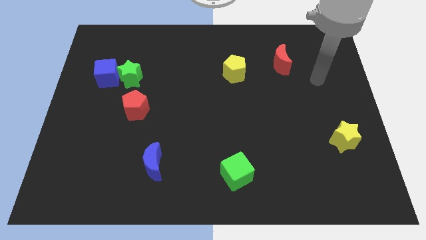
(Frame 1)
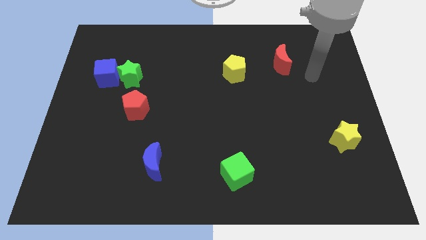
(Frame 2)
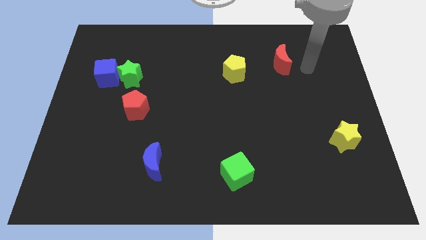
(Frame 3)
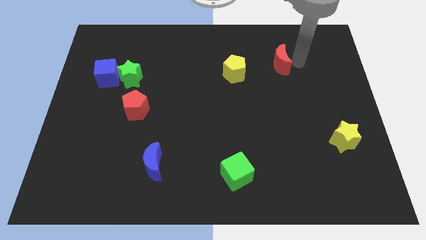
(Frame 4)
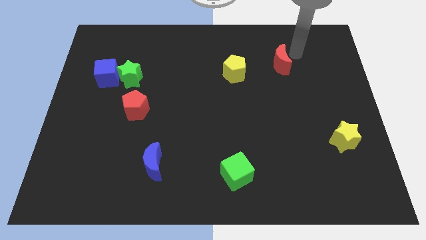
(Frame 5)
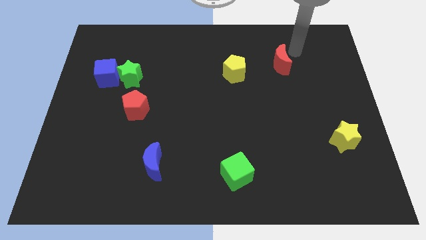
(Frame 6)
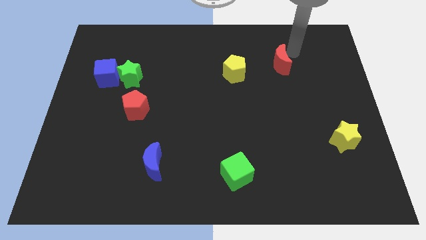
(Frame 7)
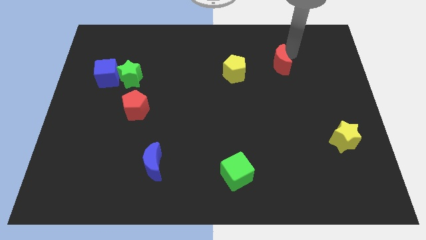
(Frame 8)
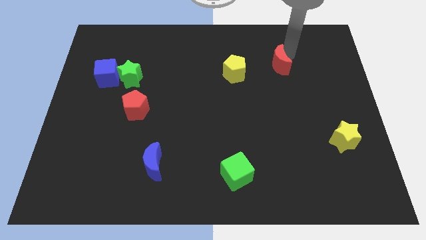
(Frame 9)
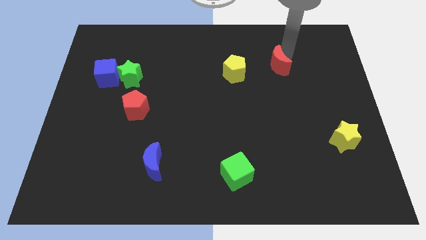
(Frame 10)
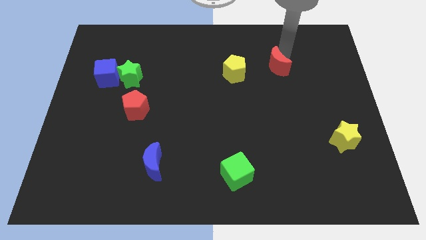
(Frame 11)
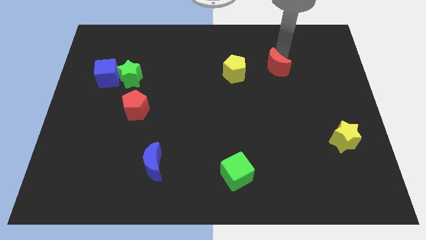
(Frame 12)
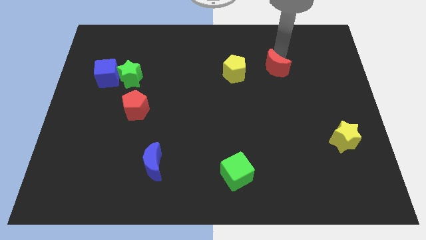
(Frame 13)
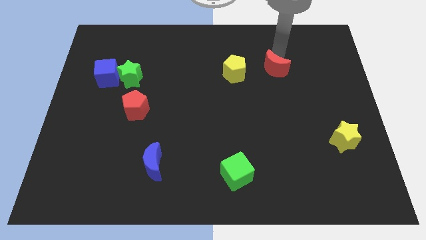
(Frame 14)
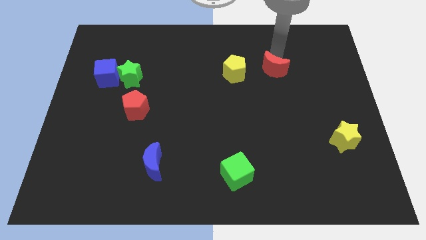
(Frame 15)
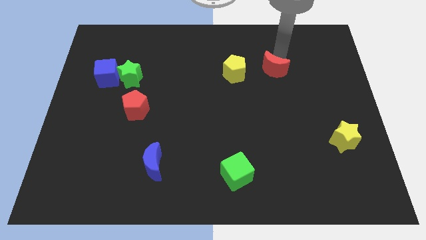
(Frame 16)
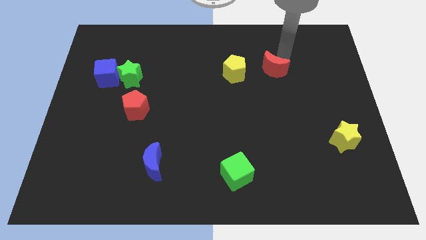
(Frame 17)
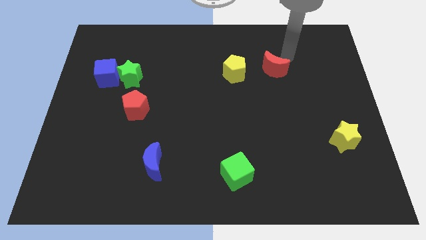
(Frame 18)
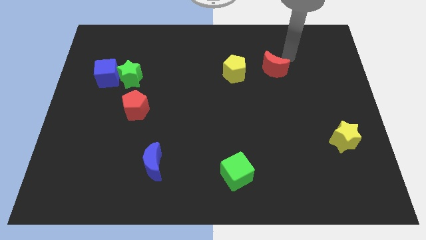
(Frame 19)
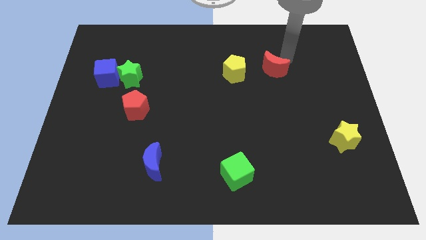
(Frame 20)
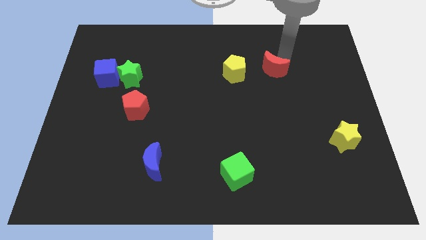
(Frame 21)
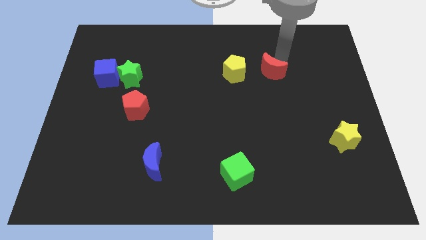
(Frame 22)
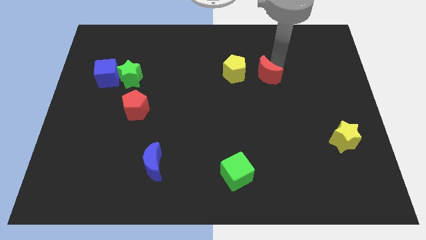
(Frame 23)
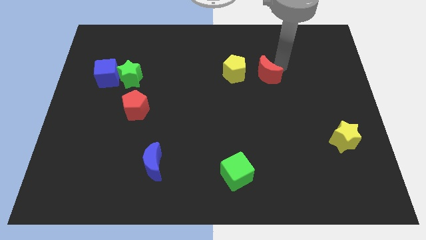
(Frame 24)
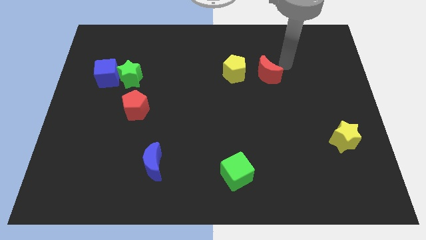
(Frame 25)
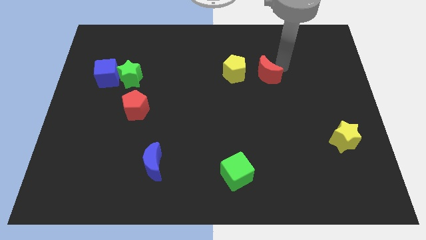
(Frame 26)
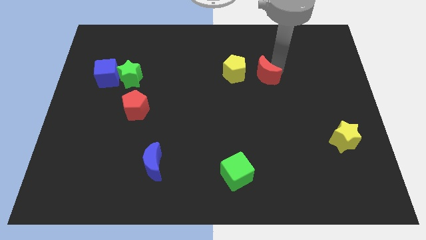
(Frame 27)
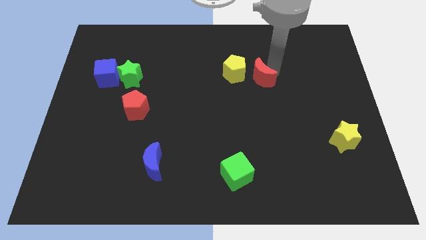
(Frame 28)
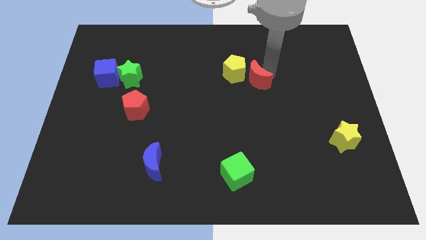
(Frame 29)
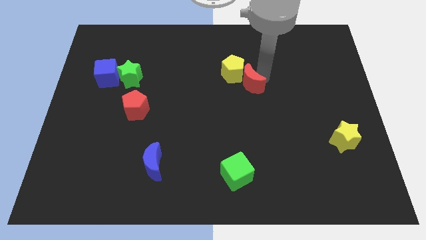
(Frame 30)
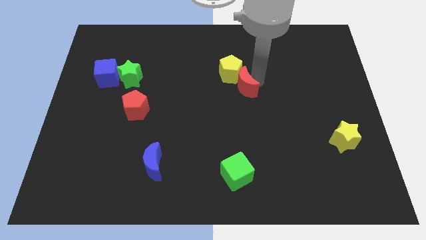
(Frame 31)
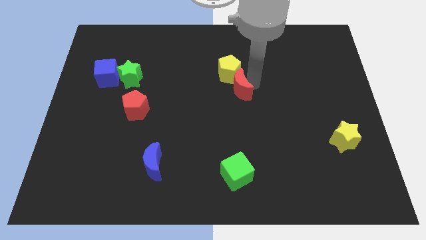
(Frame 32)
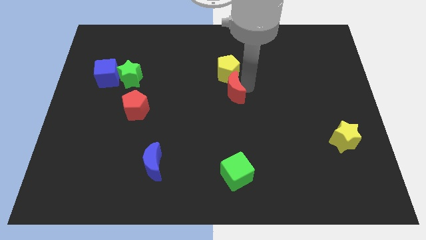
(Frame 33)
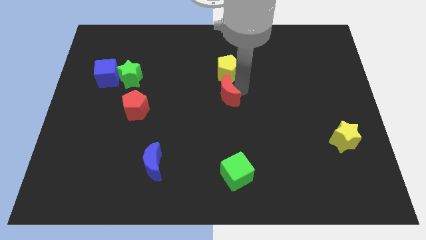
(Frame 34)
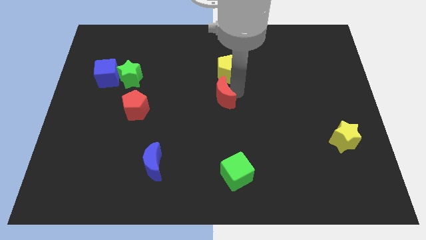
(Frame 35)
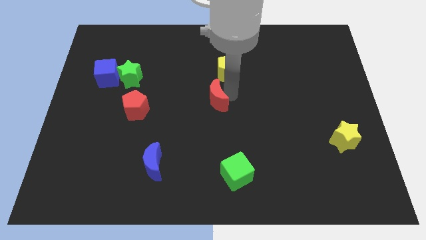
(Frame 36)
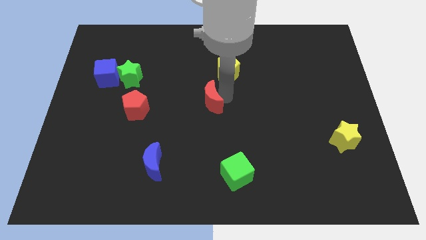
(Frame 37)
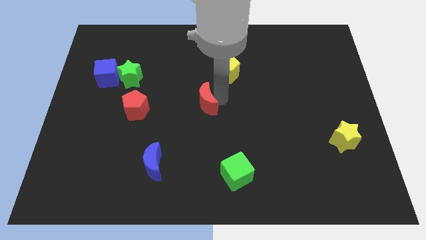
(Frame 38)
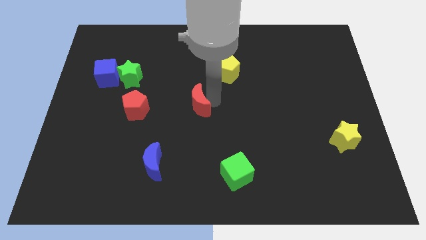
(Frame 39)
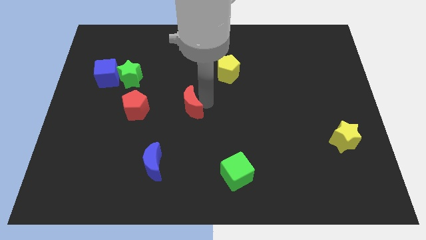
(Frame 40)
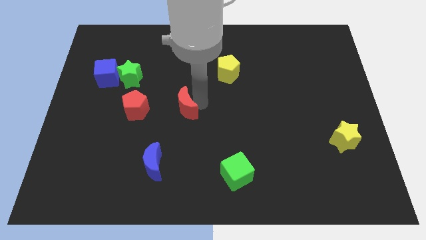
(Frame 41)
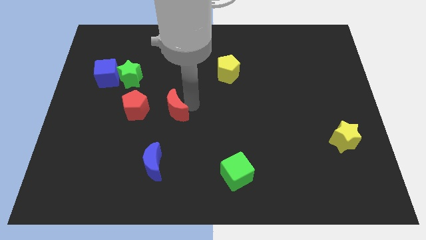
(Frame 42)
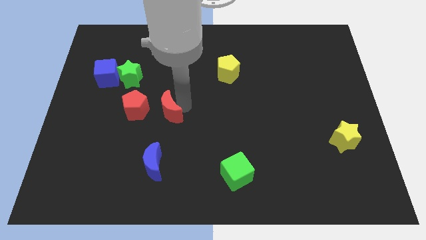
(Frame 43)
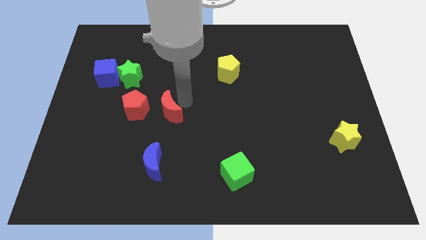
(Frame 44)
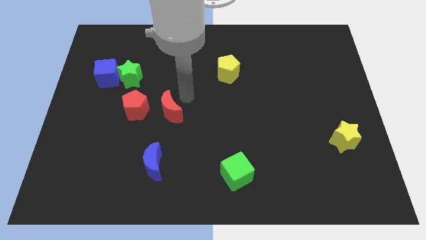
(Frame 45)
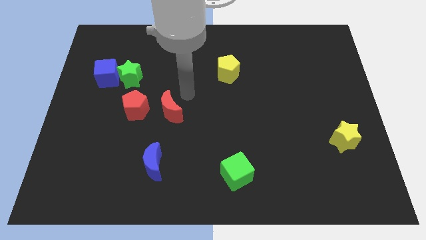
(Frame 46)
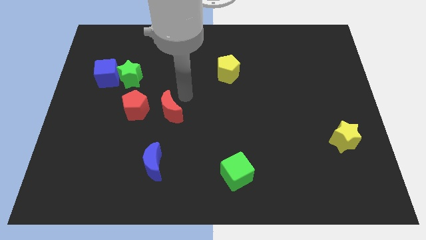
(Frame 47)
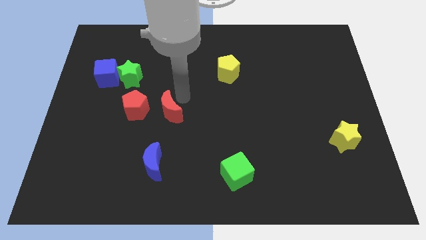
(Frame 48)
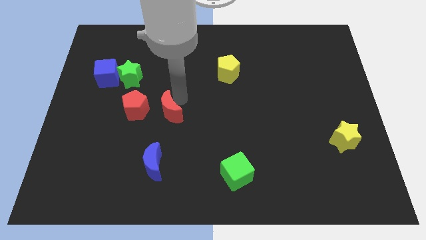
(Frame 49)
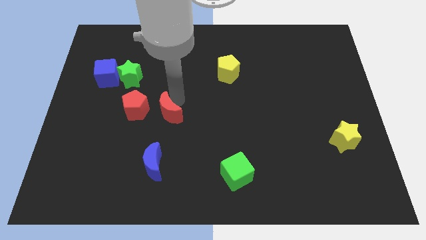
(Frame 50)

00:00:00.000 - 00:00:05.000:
move the red moon to the bottom right of the red pentagon

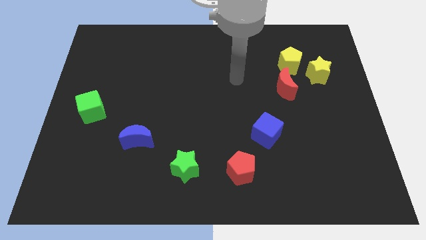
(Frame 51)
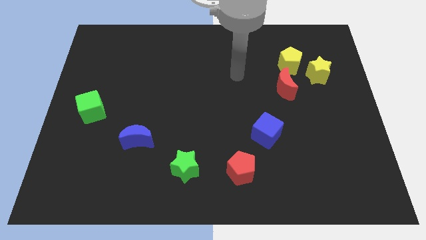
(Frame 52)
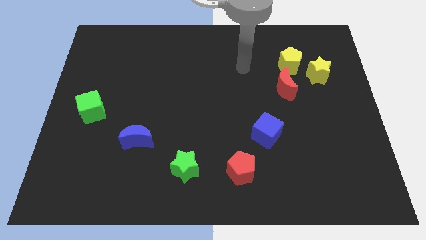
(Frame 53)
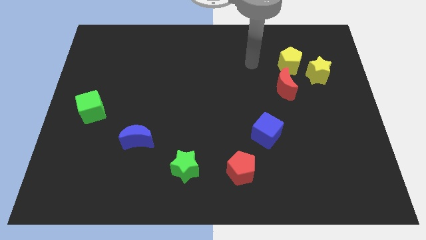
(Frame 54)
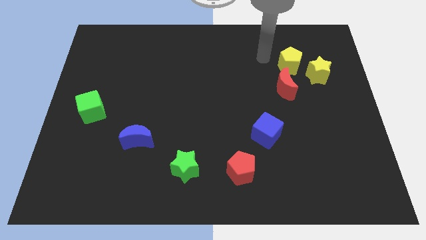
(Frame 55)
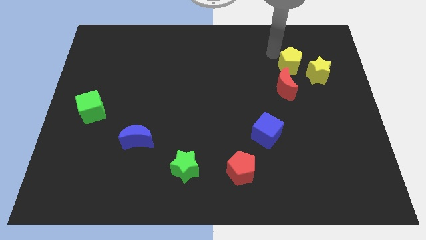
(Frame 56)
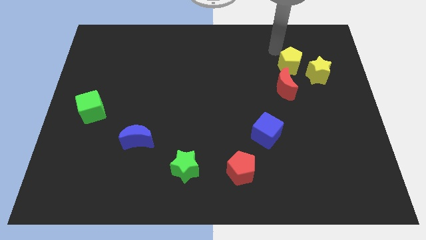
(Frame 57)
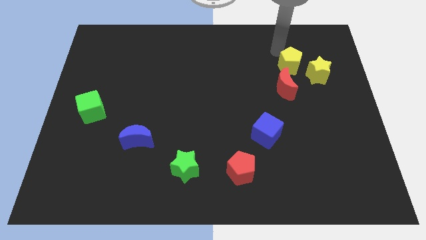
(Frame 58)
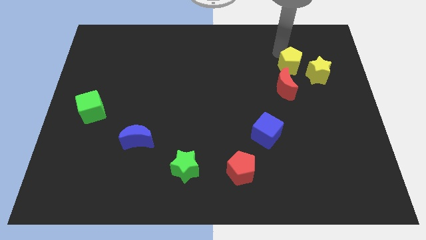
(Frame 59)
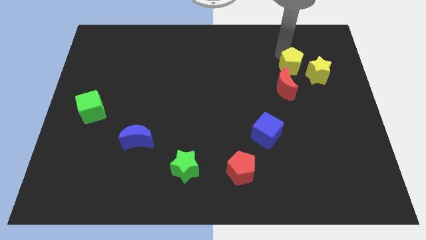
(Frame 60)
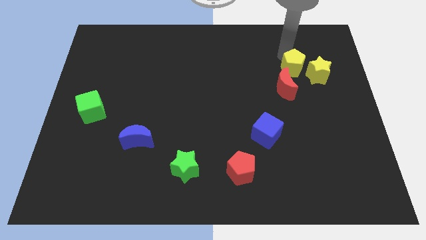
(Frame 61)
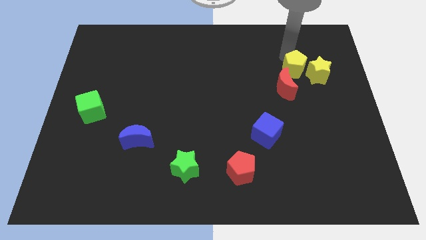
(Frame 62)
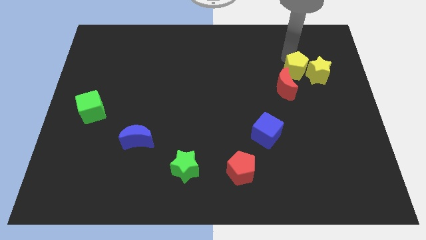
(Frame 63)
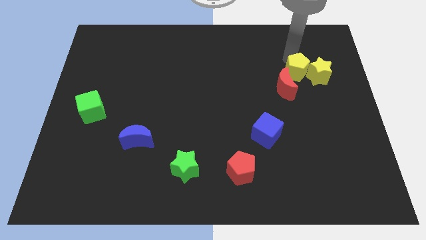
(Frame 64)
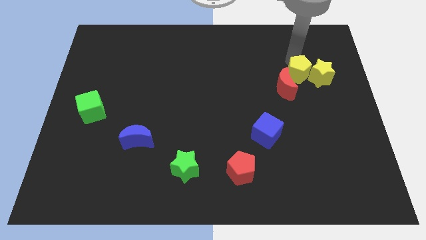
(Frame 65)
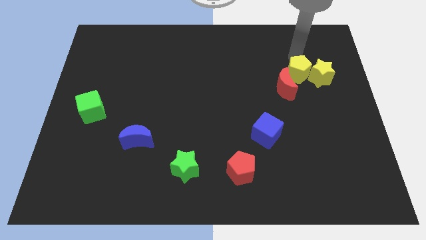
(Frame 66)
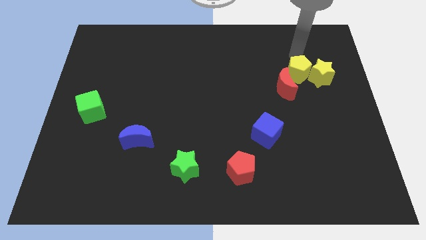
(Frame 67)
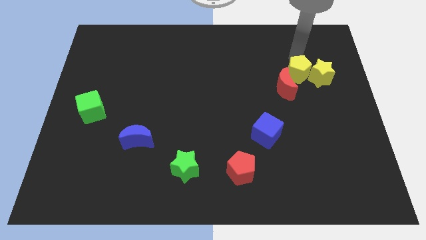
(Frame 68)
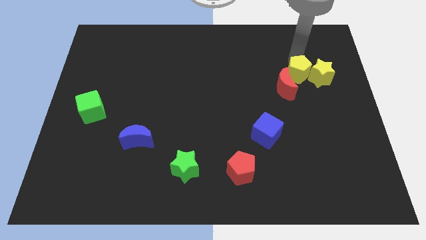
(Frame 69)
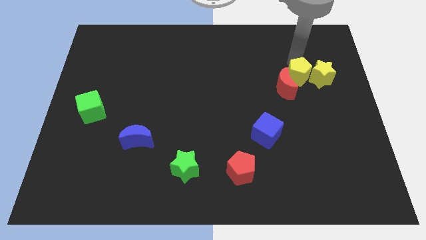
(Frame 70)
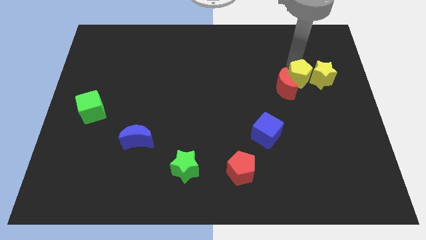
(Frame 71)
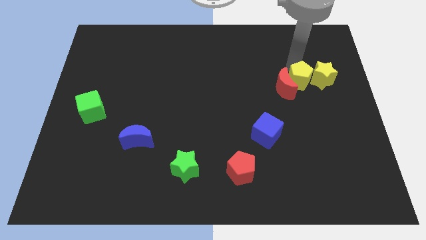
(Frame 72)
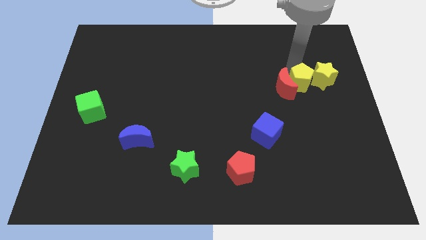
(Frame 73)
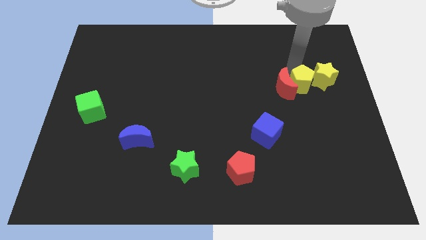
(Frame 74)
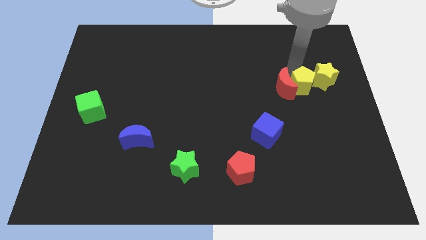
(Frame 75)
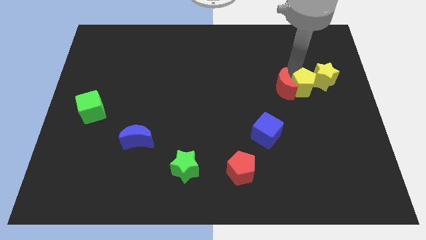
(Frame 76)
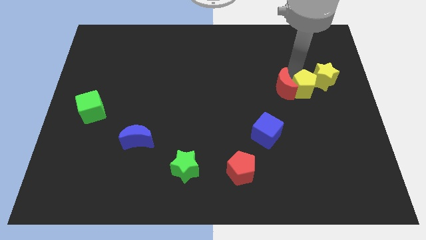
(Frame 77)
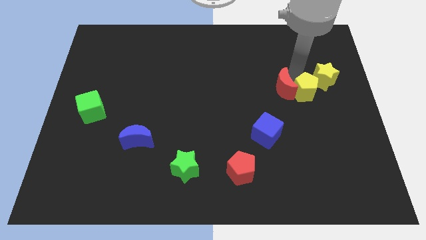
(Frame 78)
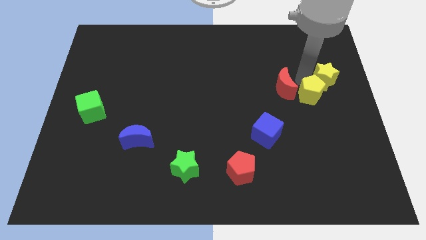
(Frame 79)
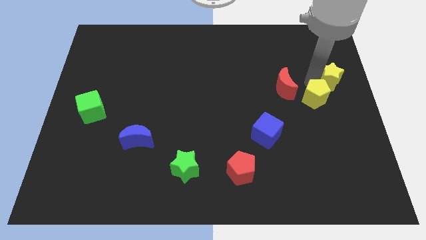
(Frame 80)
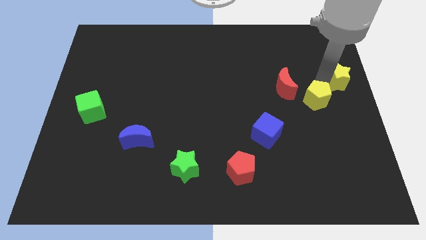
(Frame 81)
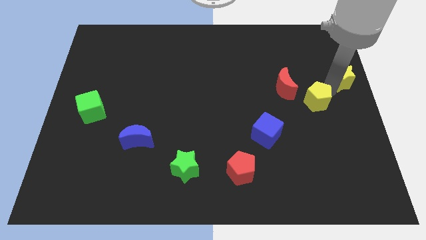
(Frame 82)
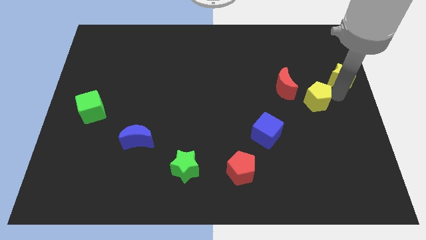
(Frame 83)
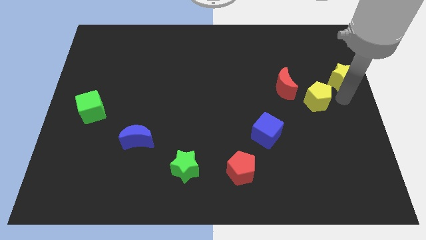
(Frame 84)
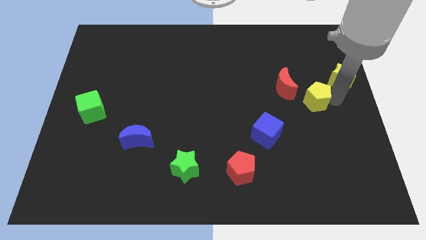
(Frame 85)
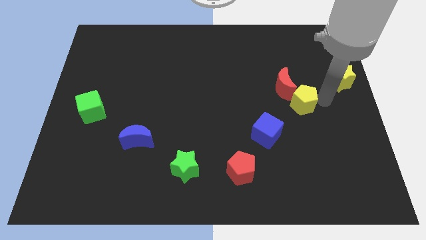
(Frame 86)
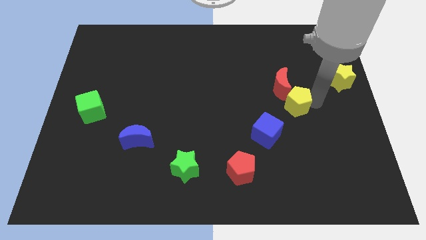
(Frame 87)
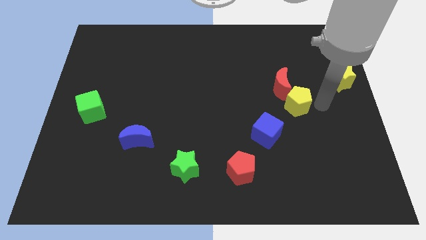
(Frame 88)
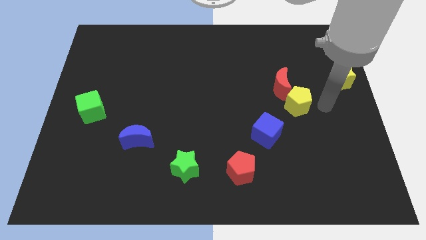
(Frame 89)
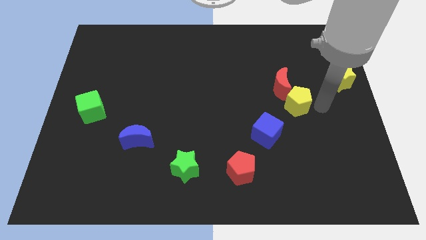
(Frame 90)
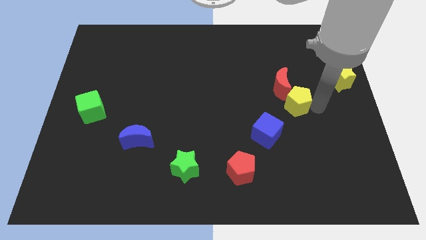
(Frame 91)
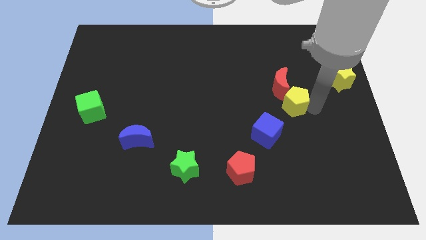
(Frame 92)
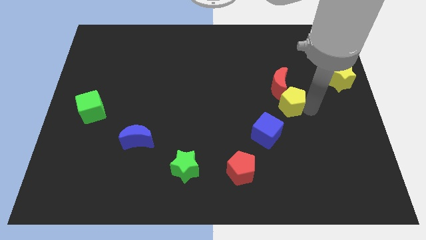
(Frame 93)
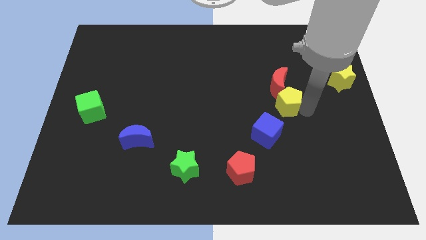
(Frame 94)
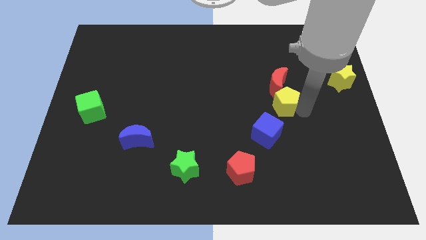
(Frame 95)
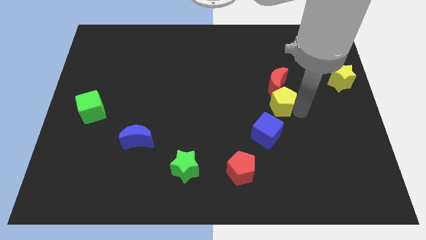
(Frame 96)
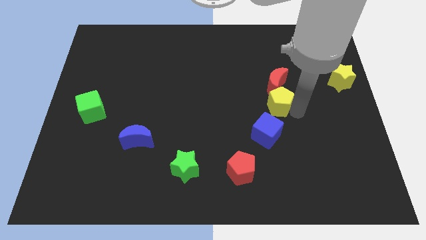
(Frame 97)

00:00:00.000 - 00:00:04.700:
push the yellow pentagon diagonally down and to the left of the red moon
